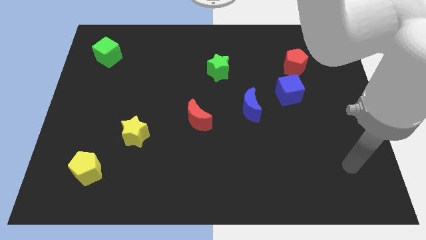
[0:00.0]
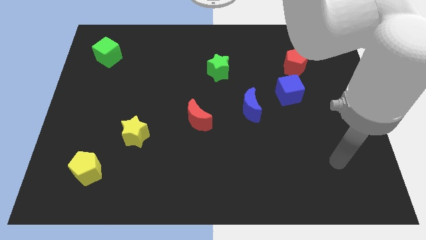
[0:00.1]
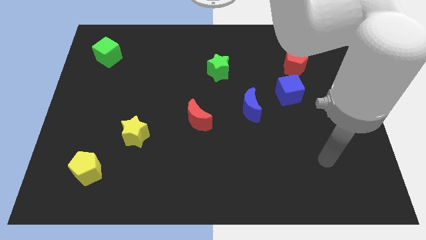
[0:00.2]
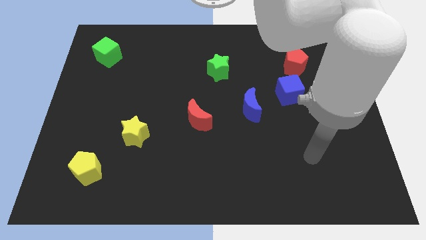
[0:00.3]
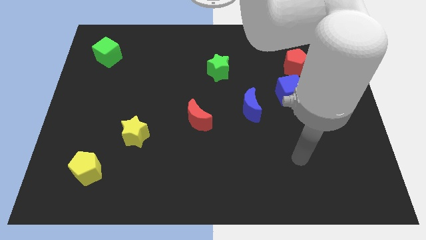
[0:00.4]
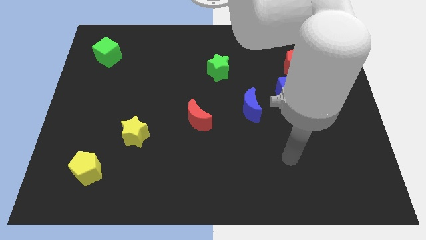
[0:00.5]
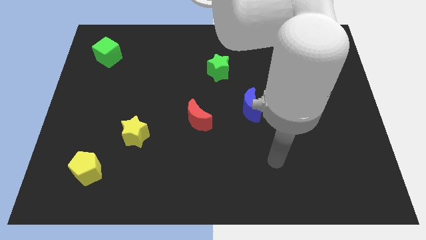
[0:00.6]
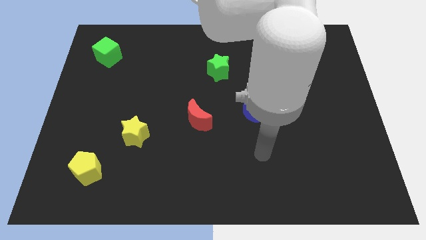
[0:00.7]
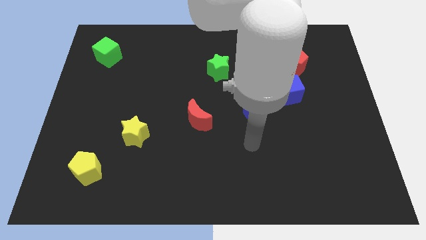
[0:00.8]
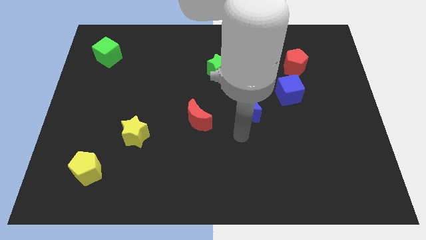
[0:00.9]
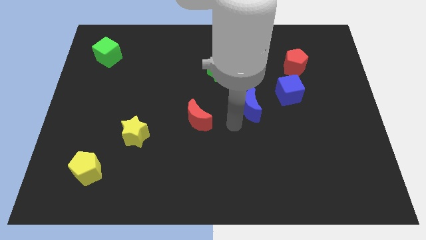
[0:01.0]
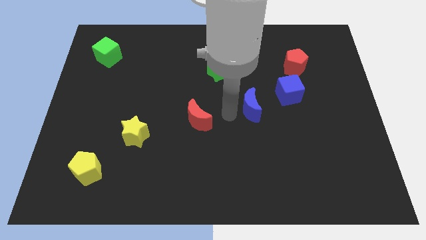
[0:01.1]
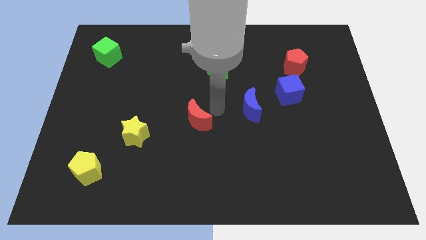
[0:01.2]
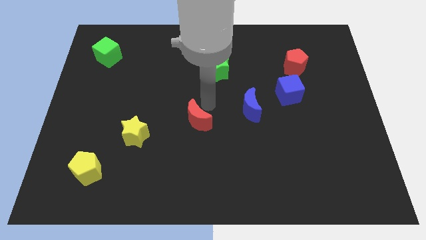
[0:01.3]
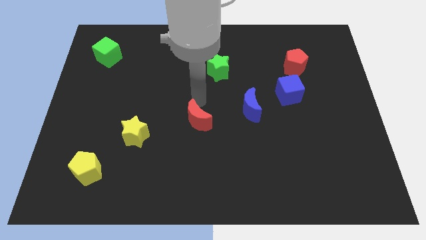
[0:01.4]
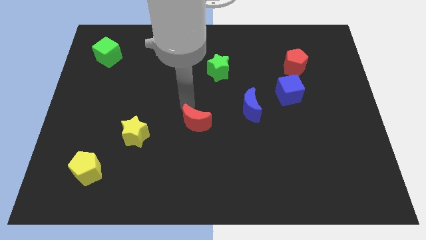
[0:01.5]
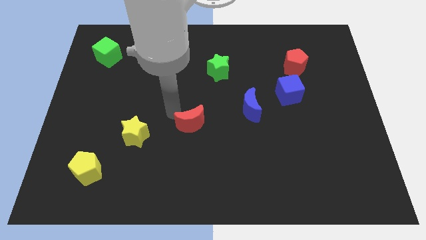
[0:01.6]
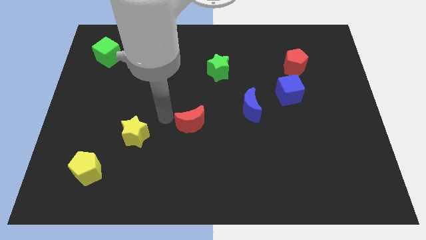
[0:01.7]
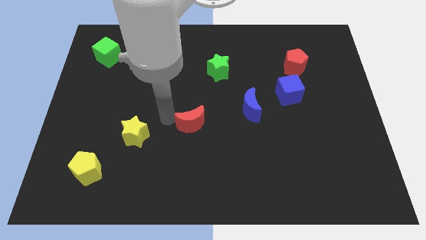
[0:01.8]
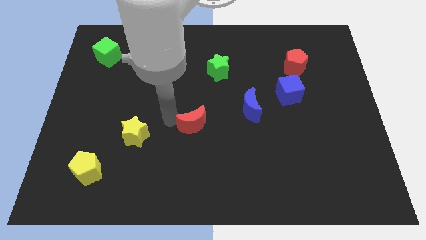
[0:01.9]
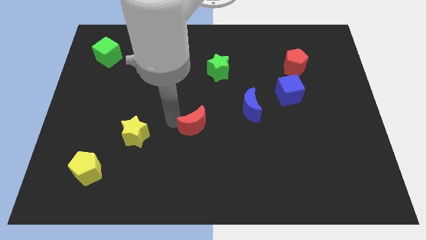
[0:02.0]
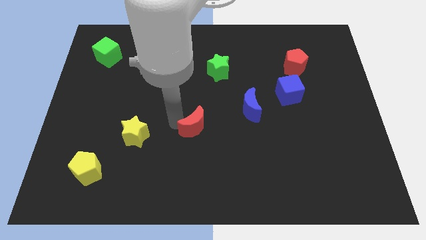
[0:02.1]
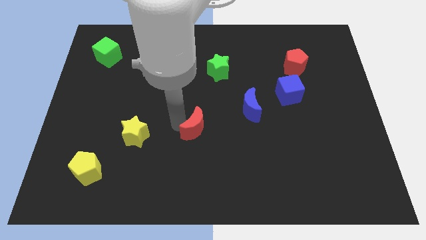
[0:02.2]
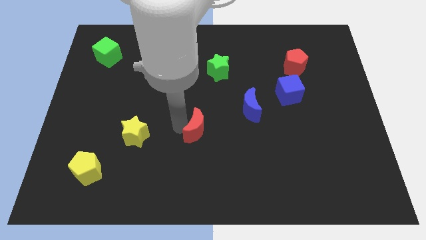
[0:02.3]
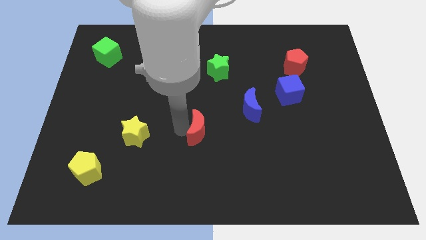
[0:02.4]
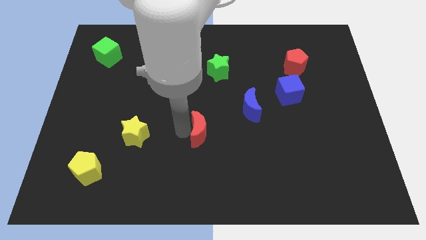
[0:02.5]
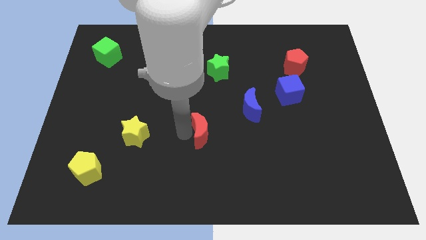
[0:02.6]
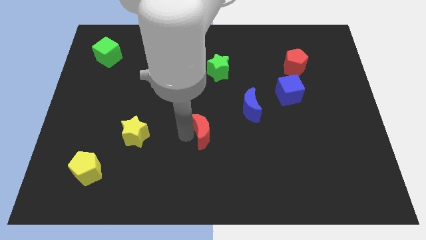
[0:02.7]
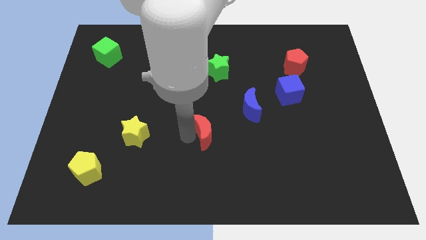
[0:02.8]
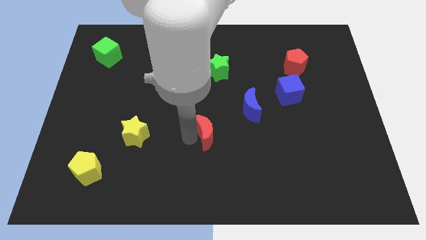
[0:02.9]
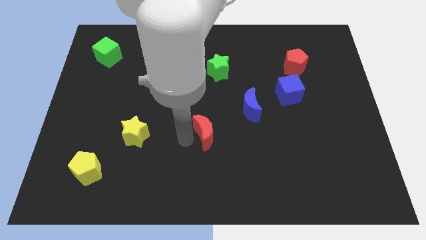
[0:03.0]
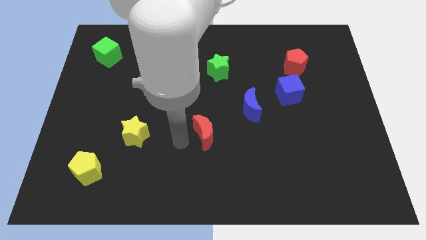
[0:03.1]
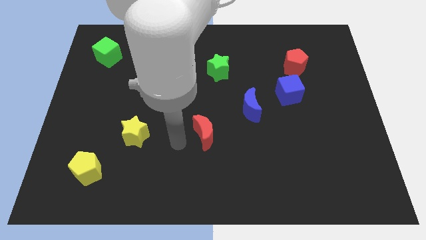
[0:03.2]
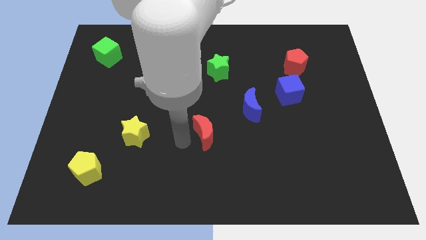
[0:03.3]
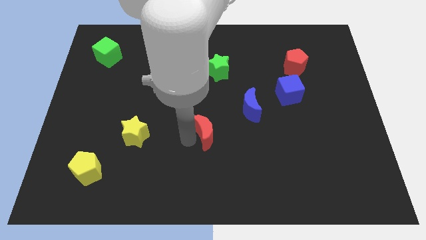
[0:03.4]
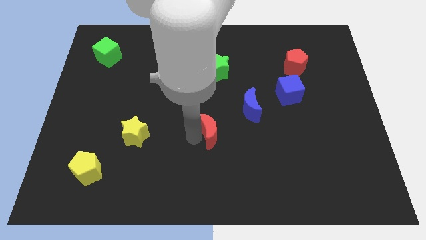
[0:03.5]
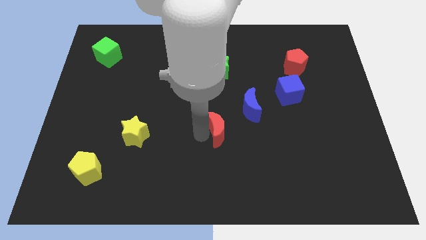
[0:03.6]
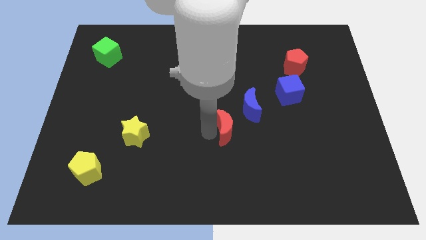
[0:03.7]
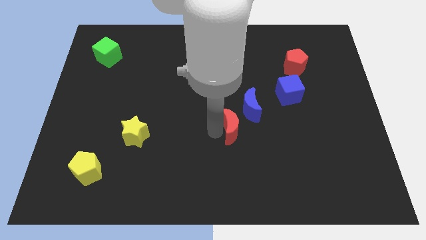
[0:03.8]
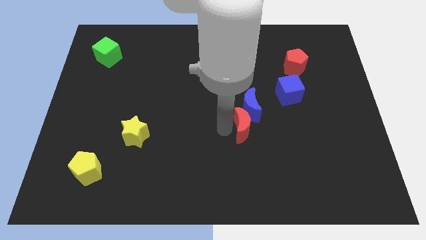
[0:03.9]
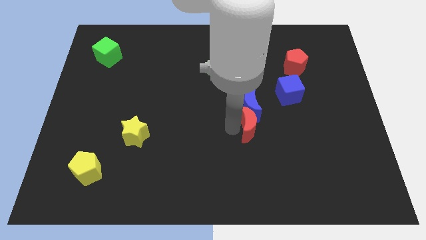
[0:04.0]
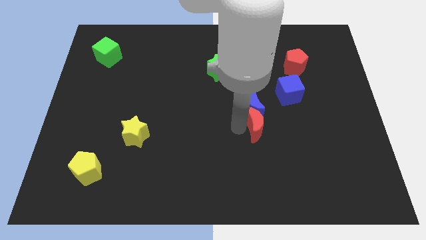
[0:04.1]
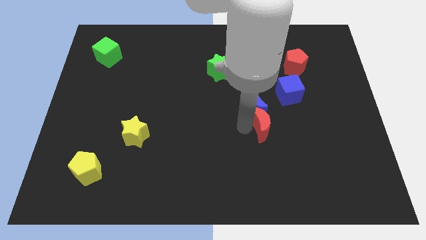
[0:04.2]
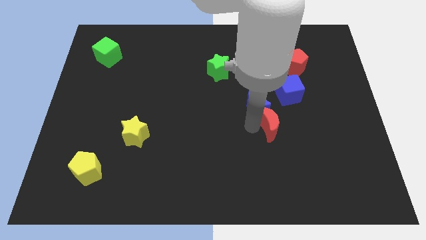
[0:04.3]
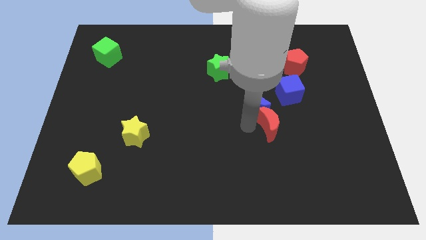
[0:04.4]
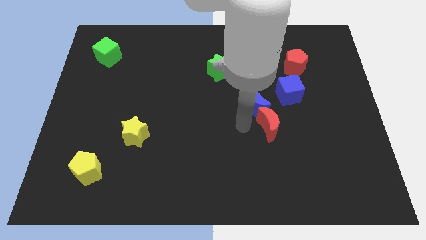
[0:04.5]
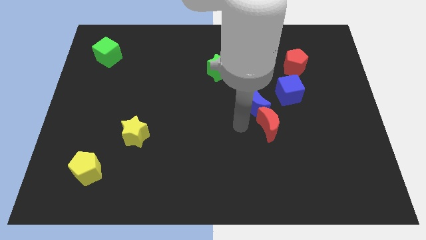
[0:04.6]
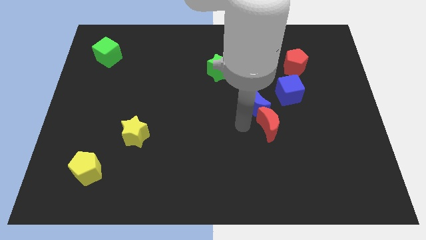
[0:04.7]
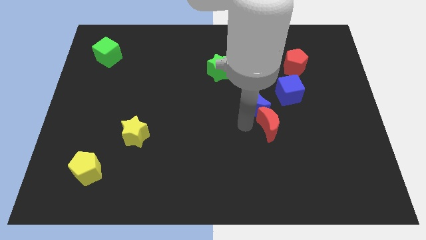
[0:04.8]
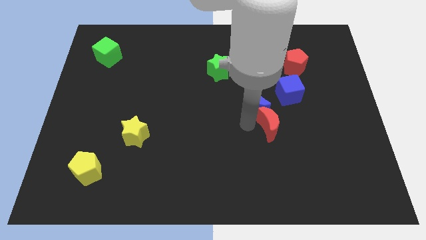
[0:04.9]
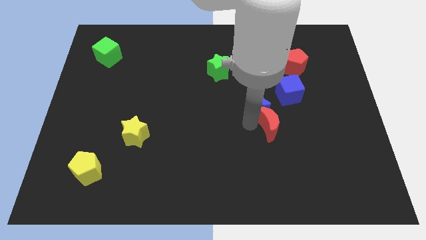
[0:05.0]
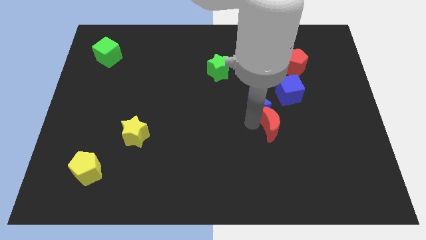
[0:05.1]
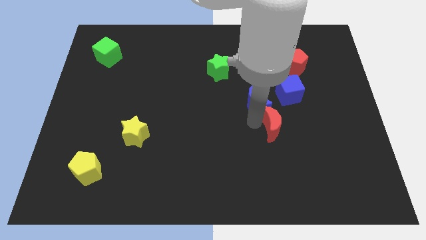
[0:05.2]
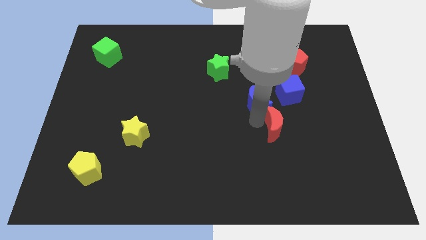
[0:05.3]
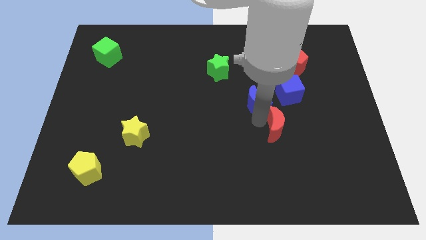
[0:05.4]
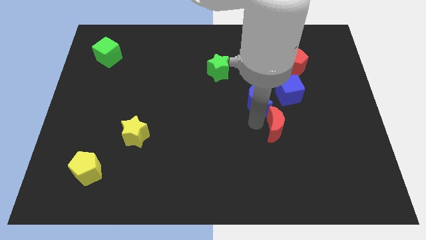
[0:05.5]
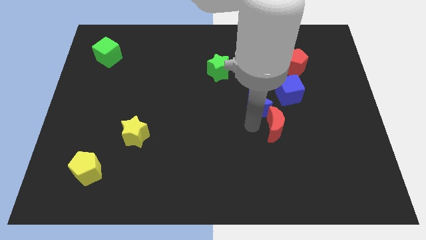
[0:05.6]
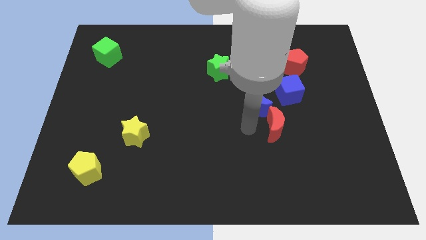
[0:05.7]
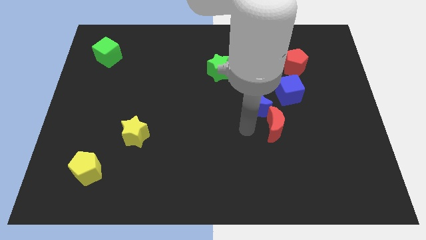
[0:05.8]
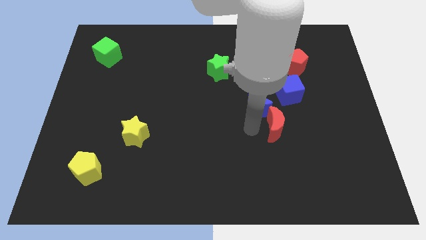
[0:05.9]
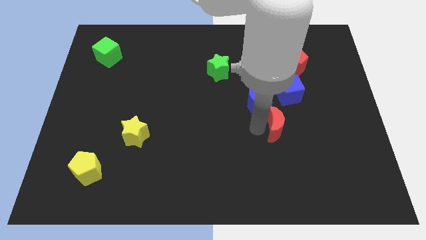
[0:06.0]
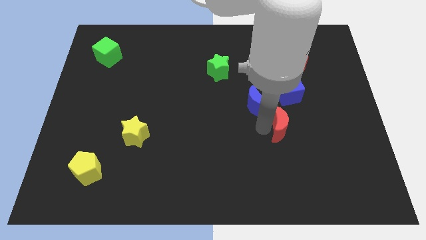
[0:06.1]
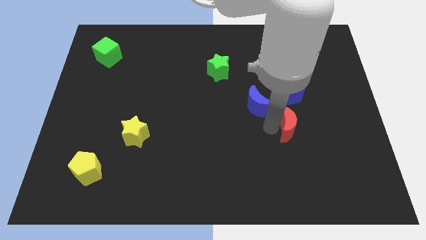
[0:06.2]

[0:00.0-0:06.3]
move the red moon to the right

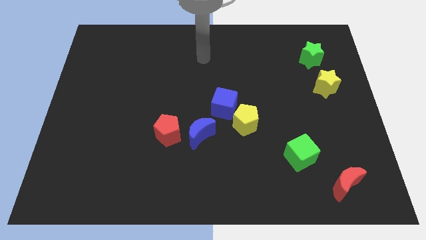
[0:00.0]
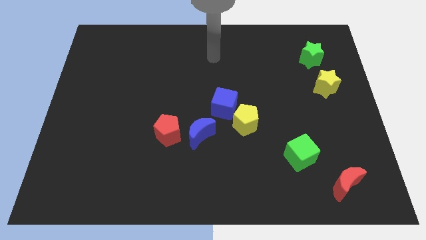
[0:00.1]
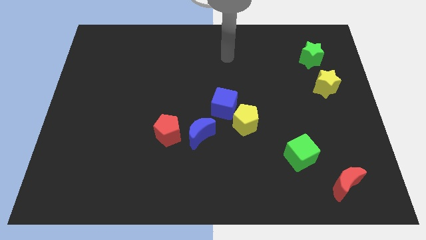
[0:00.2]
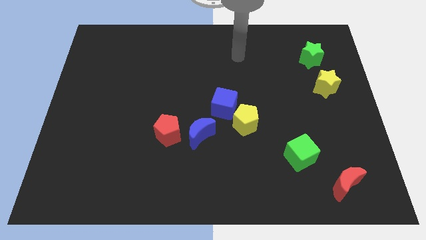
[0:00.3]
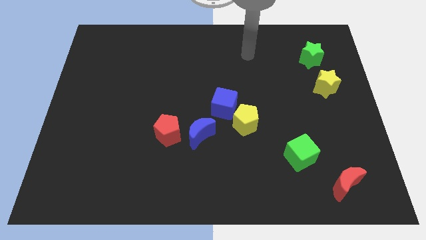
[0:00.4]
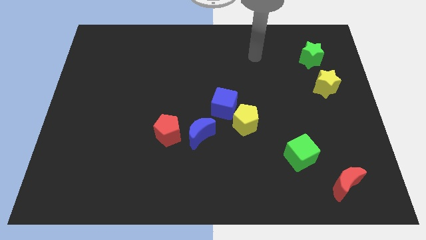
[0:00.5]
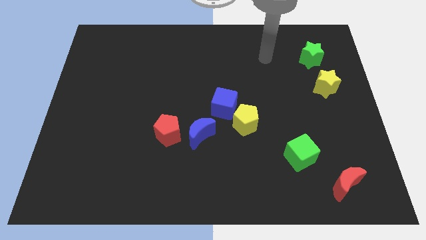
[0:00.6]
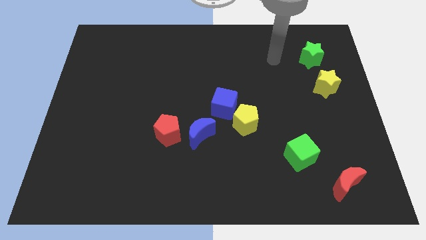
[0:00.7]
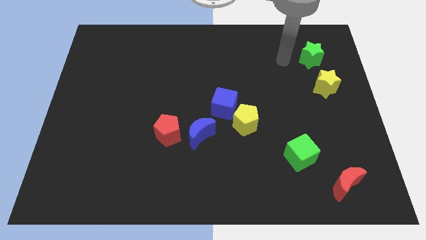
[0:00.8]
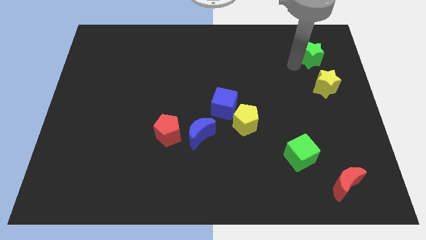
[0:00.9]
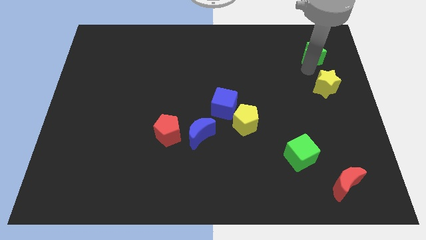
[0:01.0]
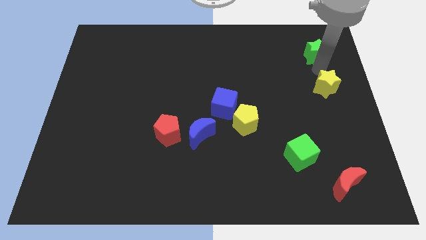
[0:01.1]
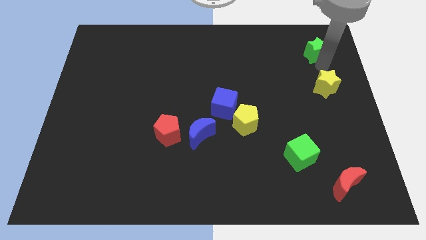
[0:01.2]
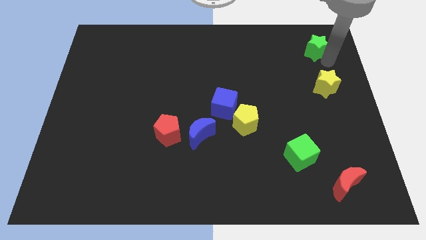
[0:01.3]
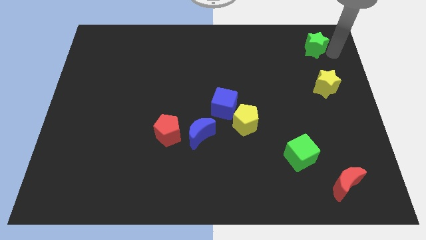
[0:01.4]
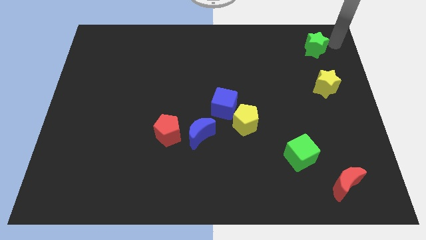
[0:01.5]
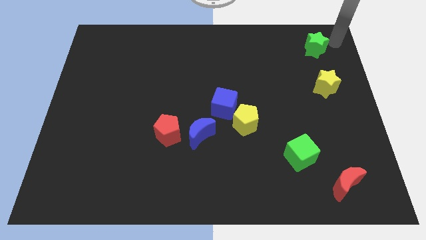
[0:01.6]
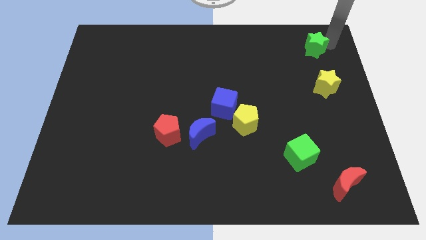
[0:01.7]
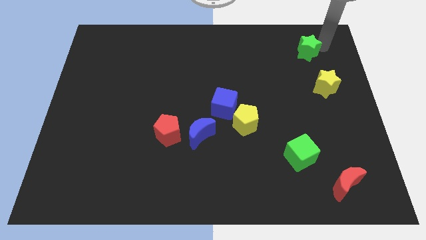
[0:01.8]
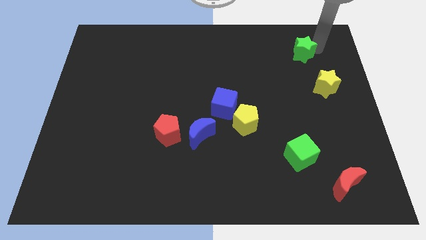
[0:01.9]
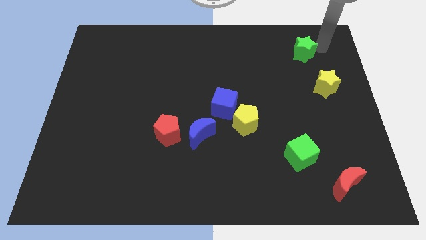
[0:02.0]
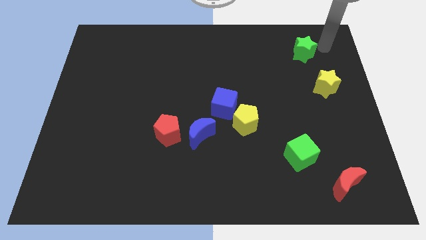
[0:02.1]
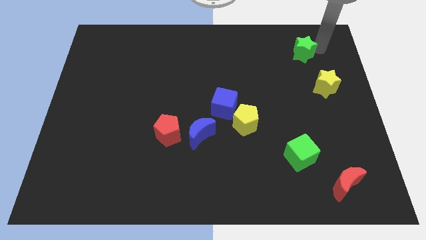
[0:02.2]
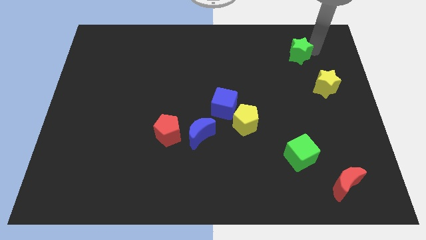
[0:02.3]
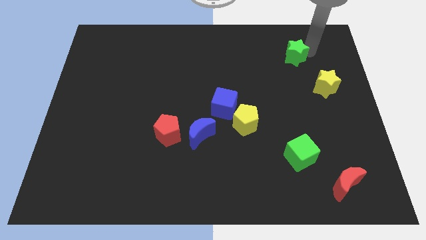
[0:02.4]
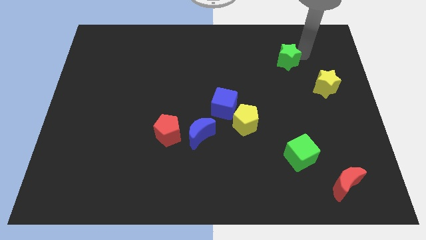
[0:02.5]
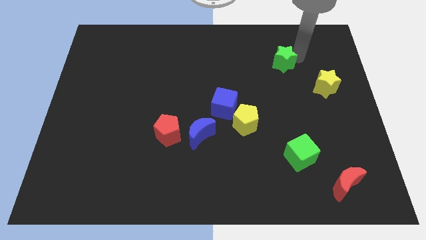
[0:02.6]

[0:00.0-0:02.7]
move the green star left a little bit
